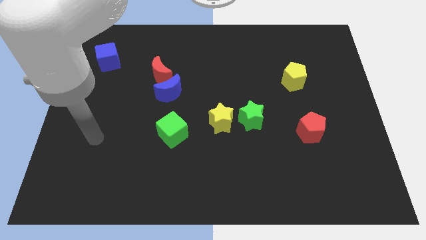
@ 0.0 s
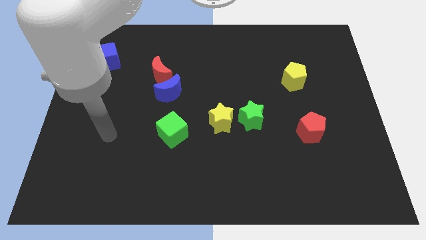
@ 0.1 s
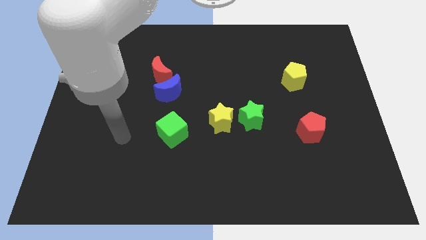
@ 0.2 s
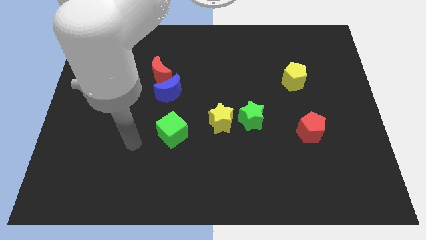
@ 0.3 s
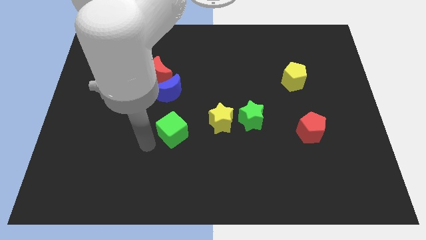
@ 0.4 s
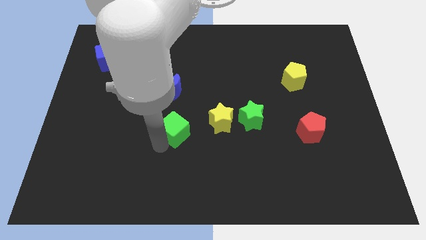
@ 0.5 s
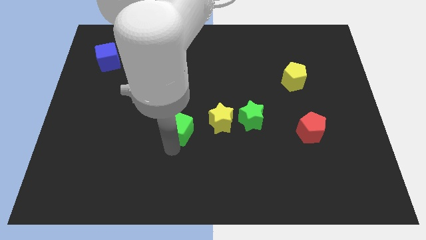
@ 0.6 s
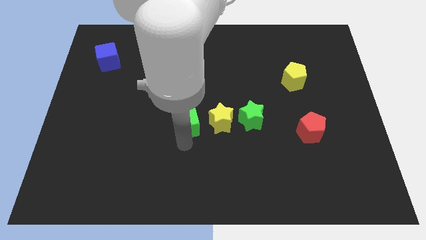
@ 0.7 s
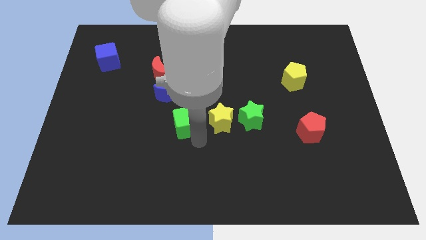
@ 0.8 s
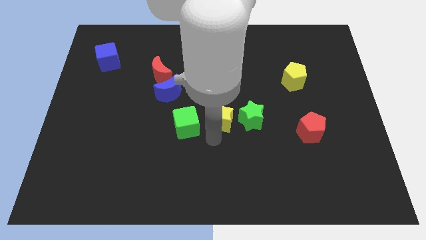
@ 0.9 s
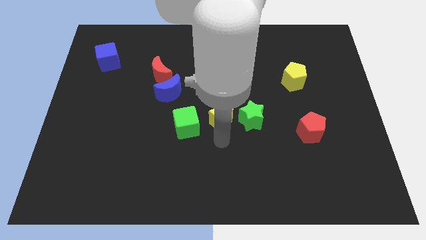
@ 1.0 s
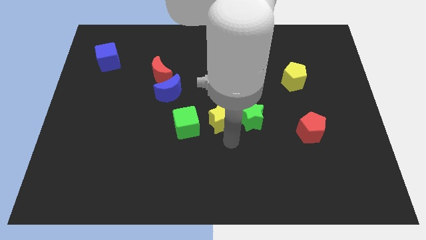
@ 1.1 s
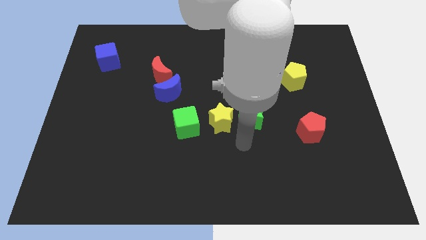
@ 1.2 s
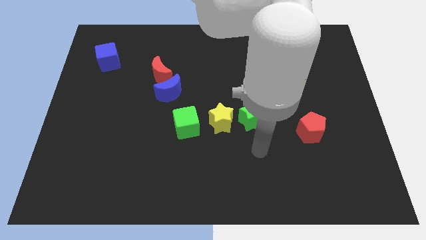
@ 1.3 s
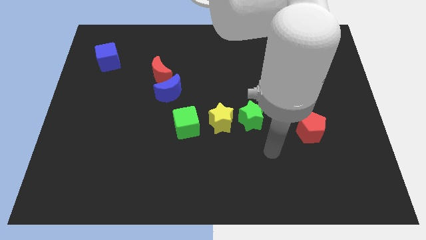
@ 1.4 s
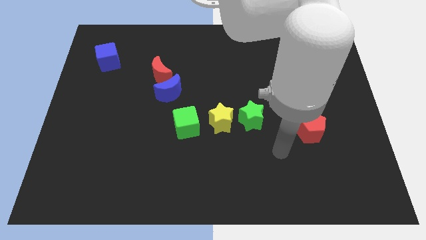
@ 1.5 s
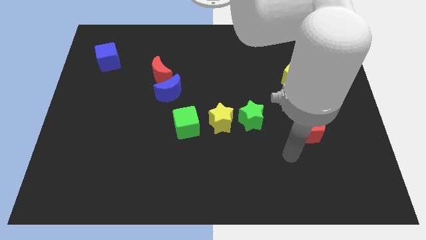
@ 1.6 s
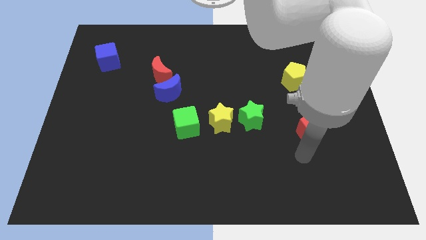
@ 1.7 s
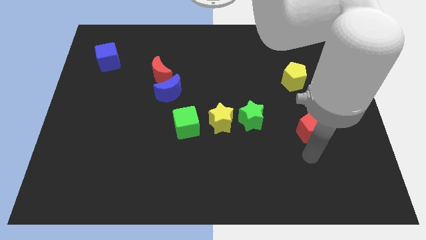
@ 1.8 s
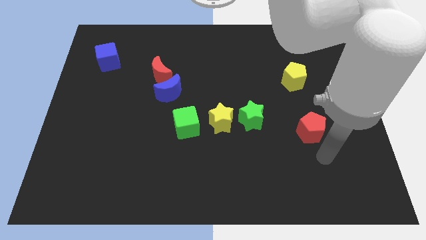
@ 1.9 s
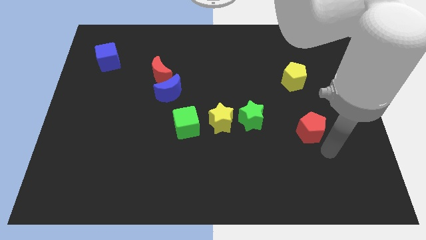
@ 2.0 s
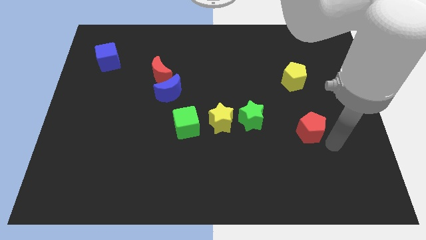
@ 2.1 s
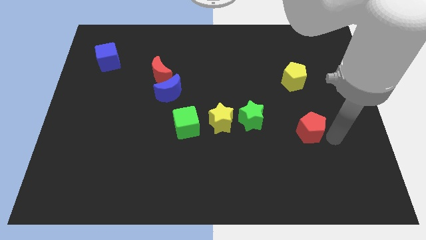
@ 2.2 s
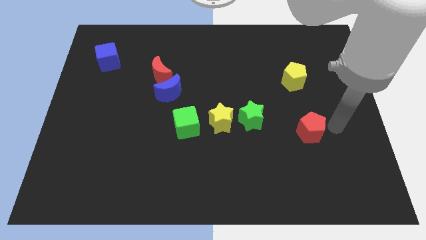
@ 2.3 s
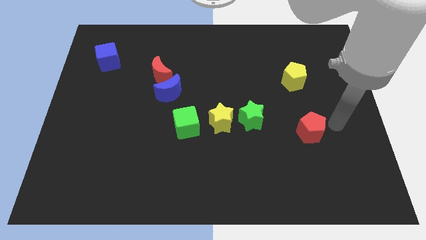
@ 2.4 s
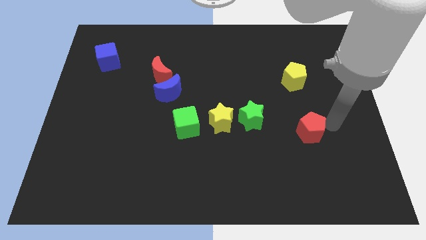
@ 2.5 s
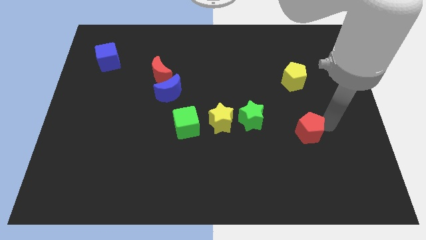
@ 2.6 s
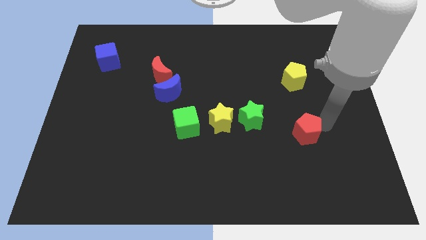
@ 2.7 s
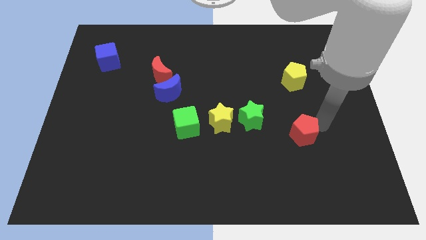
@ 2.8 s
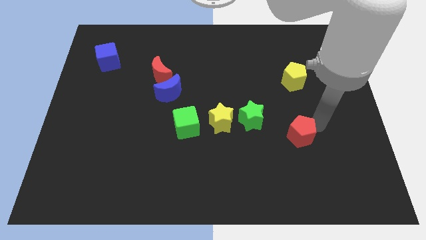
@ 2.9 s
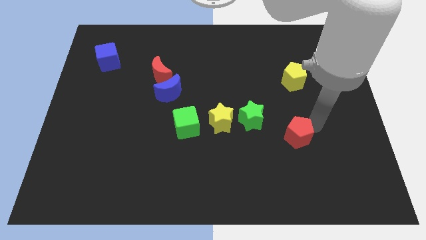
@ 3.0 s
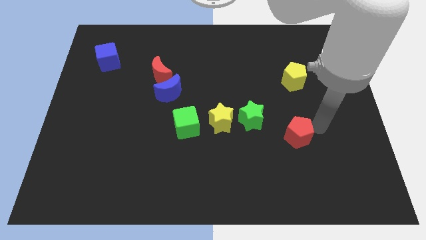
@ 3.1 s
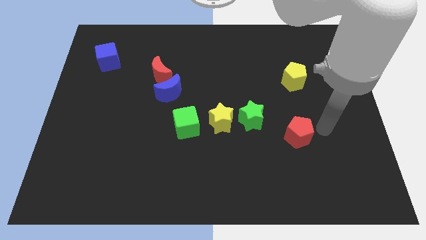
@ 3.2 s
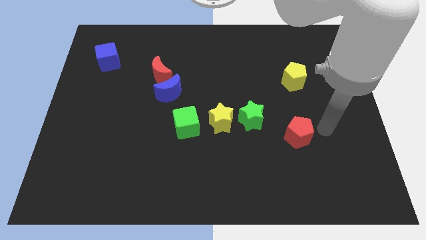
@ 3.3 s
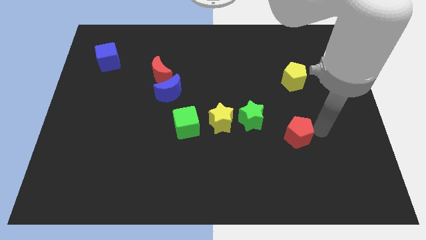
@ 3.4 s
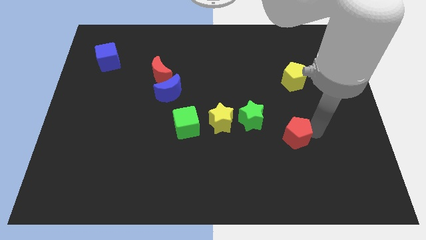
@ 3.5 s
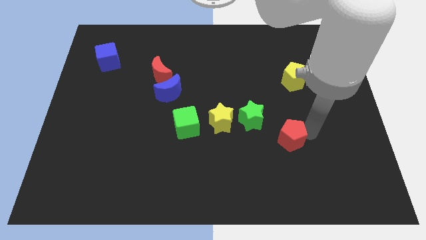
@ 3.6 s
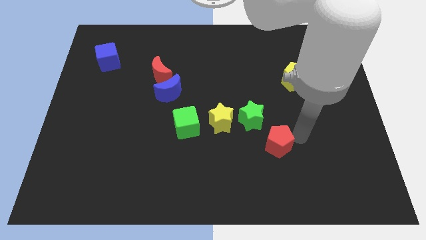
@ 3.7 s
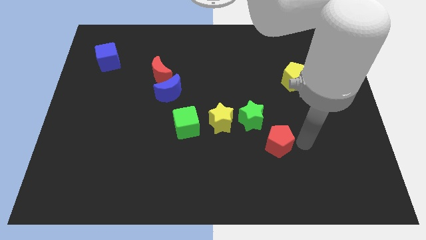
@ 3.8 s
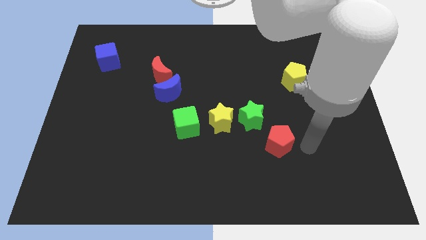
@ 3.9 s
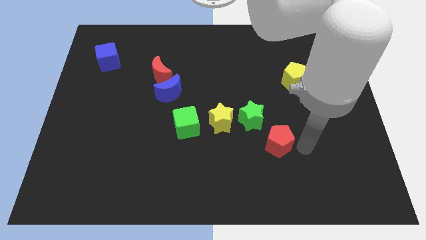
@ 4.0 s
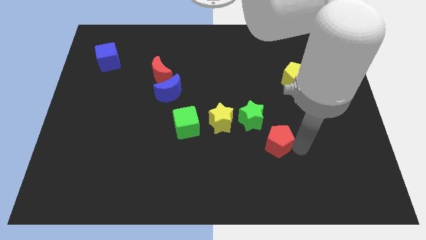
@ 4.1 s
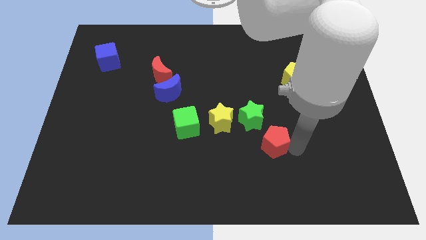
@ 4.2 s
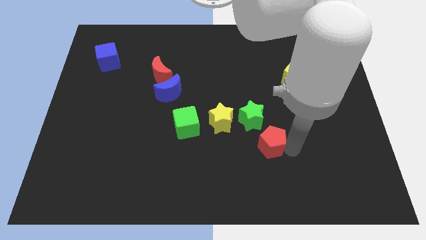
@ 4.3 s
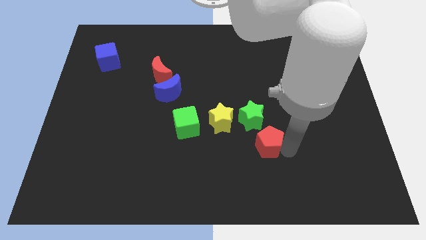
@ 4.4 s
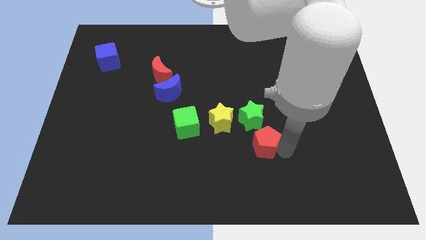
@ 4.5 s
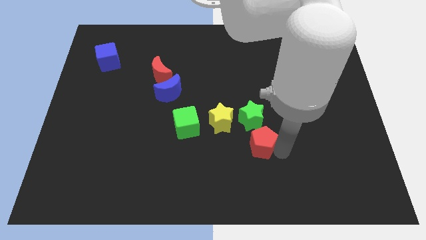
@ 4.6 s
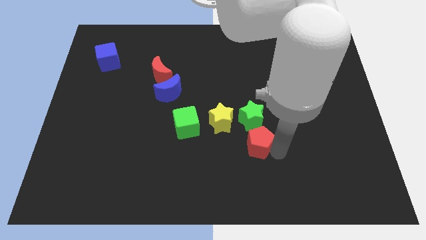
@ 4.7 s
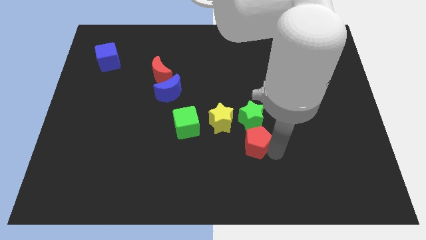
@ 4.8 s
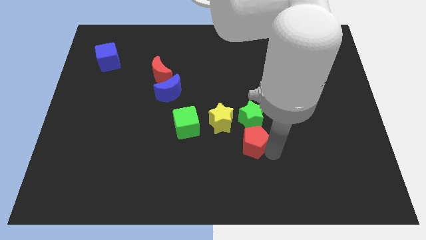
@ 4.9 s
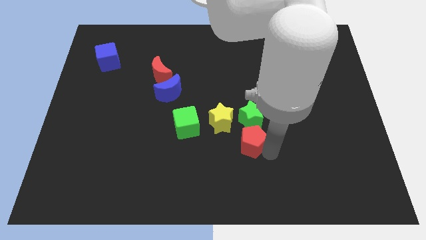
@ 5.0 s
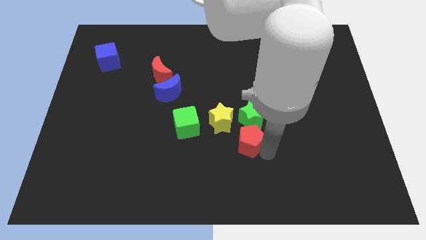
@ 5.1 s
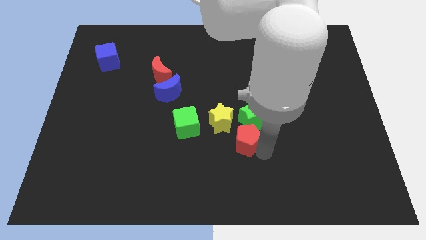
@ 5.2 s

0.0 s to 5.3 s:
put the red pentagon to the right side of the green cube

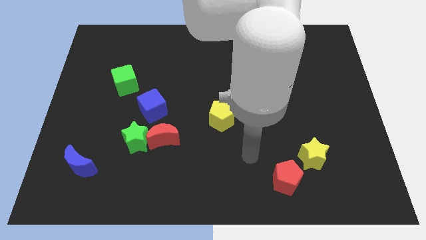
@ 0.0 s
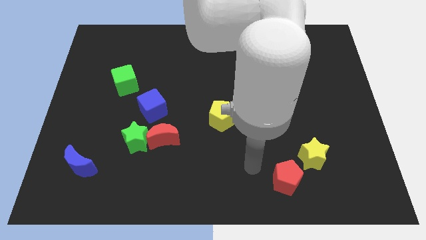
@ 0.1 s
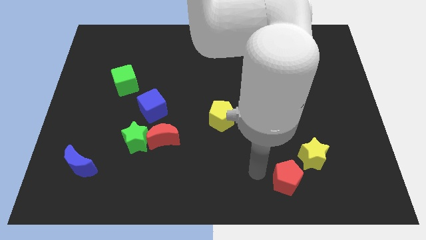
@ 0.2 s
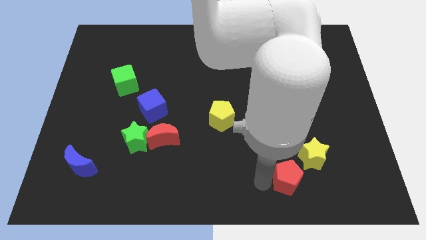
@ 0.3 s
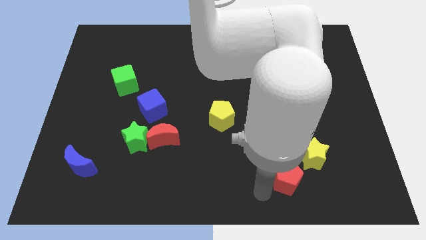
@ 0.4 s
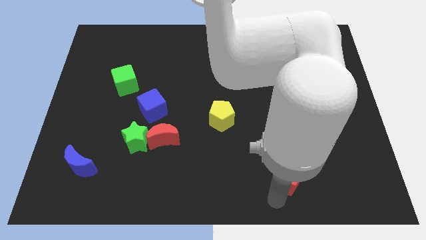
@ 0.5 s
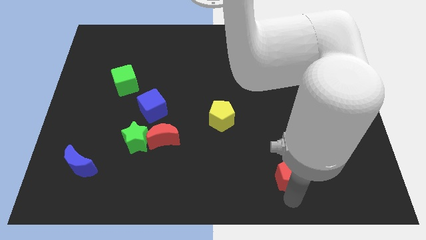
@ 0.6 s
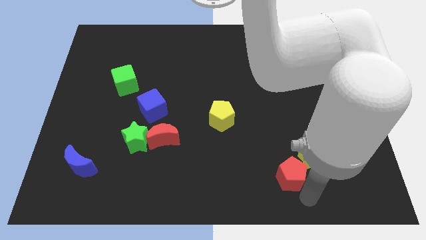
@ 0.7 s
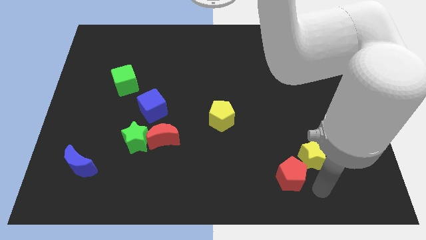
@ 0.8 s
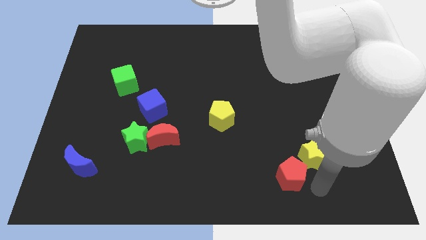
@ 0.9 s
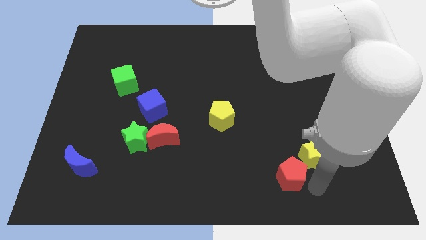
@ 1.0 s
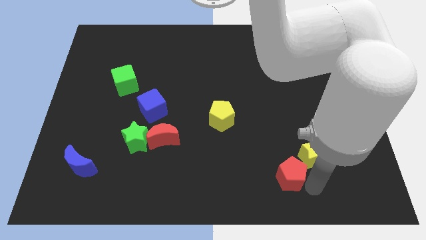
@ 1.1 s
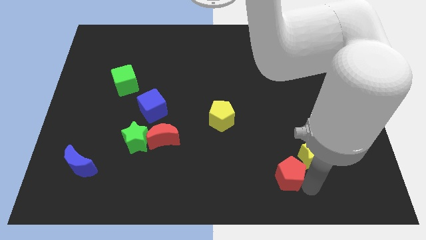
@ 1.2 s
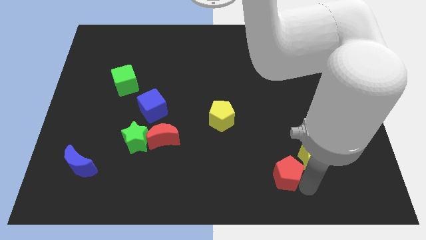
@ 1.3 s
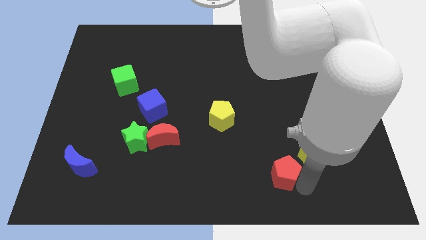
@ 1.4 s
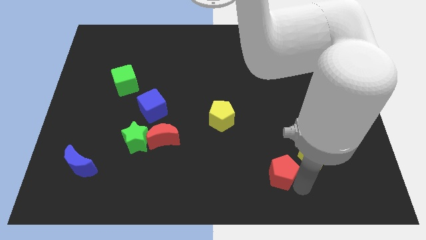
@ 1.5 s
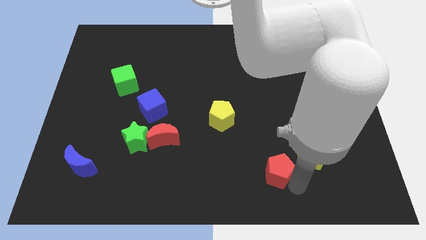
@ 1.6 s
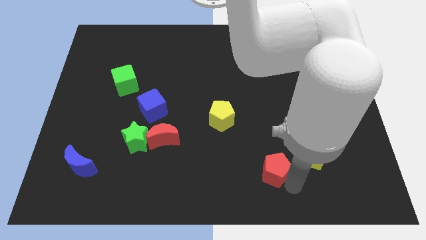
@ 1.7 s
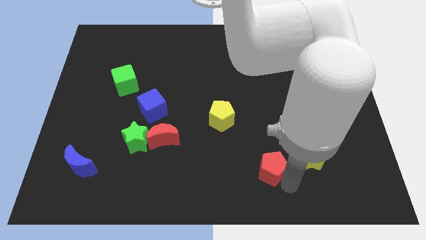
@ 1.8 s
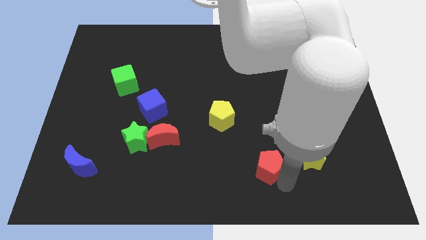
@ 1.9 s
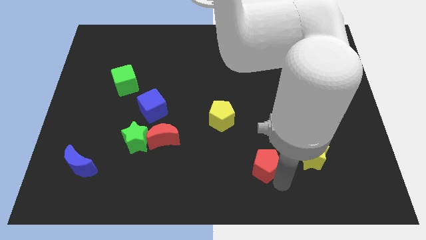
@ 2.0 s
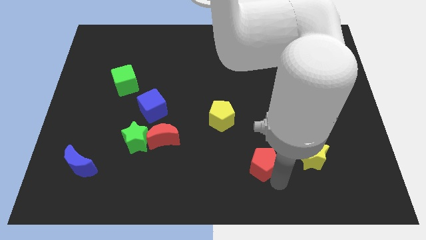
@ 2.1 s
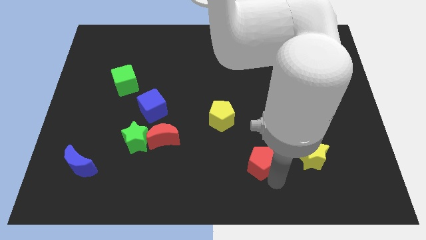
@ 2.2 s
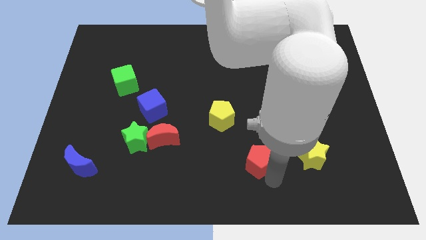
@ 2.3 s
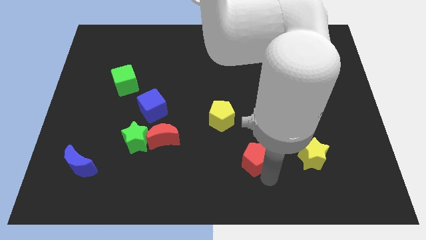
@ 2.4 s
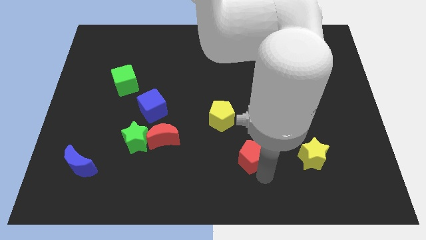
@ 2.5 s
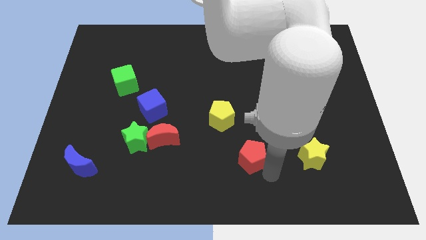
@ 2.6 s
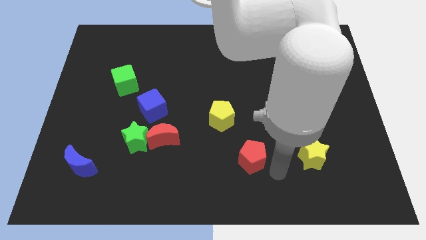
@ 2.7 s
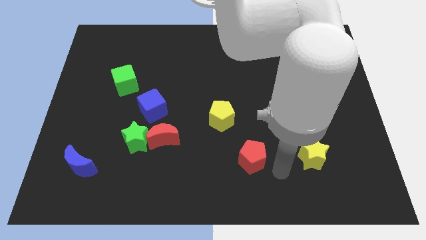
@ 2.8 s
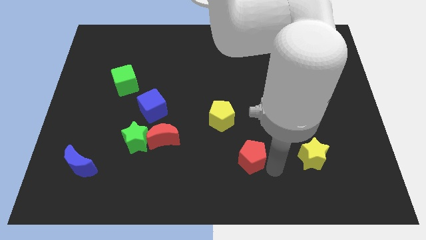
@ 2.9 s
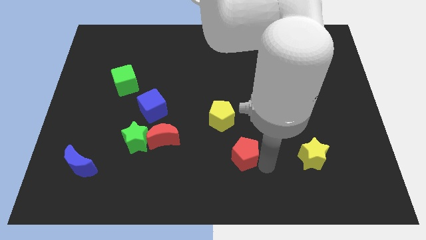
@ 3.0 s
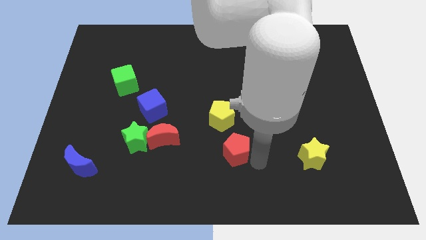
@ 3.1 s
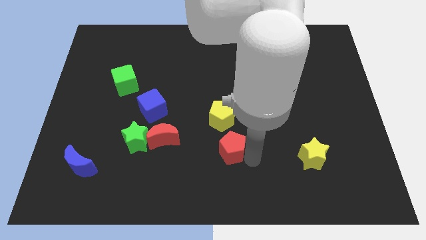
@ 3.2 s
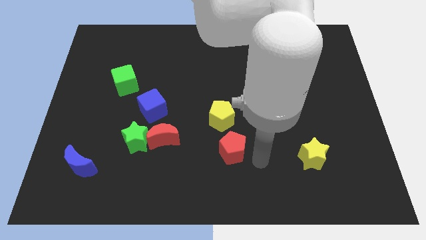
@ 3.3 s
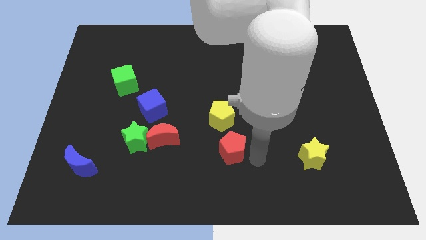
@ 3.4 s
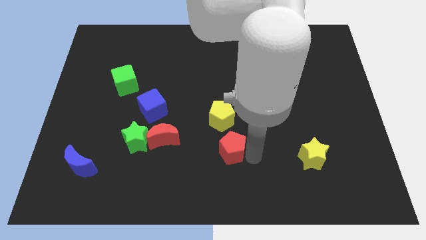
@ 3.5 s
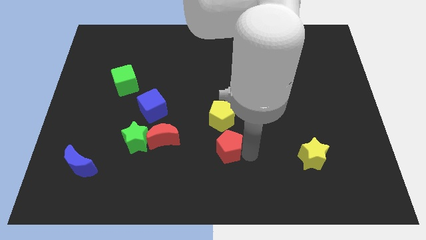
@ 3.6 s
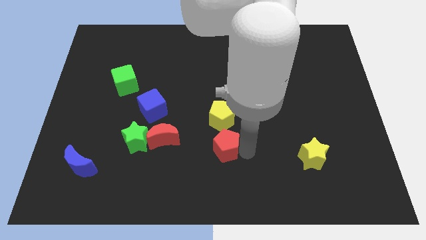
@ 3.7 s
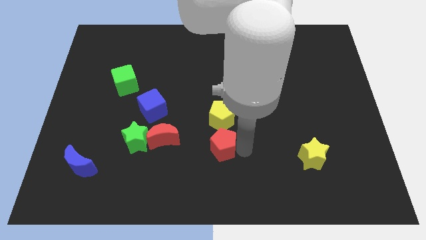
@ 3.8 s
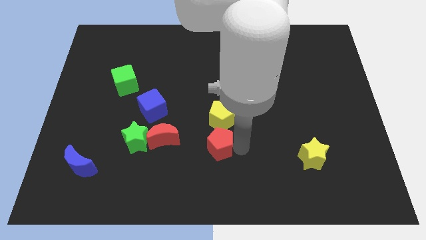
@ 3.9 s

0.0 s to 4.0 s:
push the red pentagon to the bottom left of the yellow pentagon
